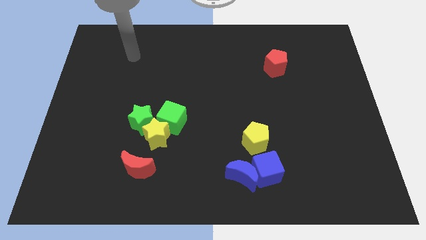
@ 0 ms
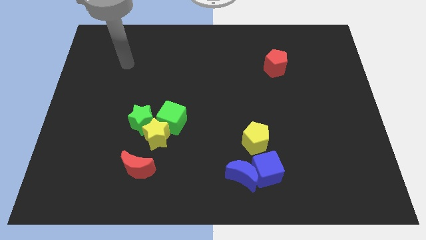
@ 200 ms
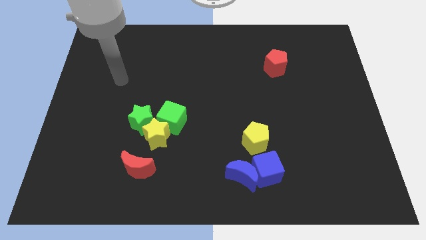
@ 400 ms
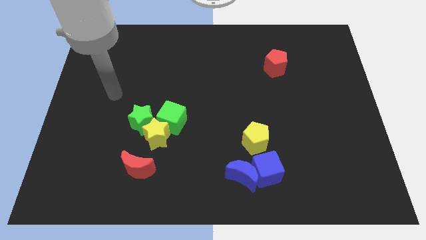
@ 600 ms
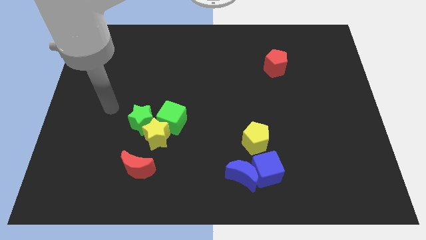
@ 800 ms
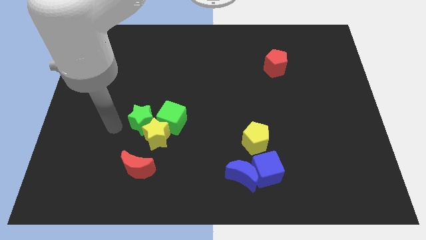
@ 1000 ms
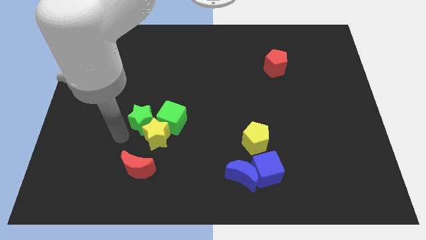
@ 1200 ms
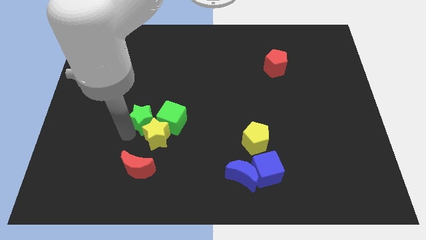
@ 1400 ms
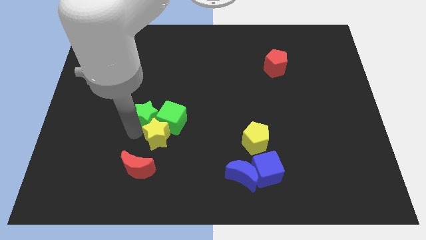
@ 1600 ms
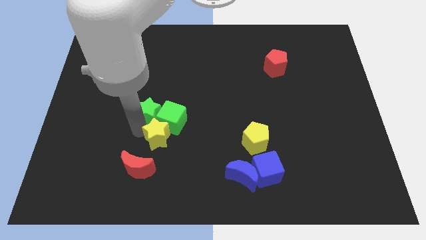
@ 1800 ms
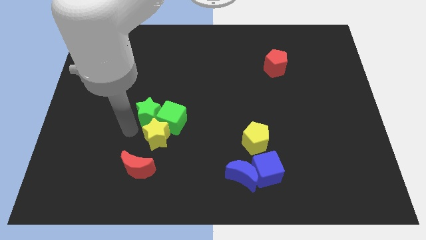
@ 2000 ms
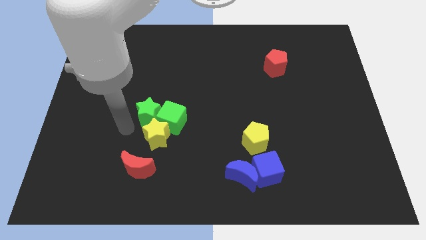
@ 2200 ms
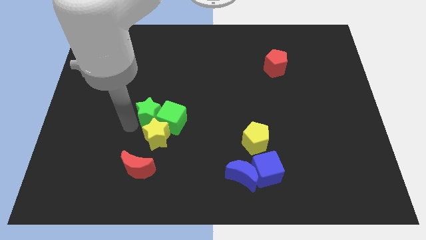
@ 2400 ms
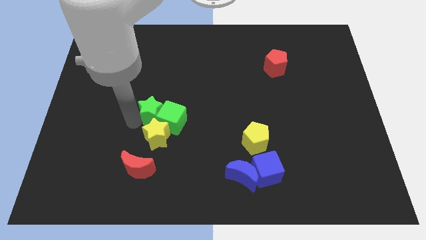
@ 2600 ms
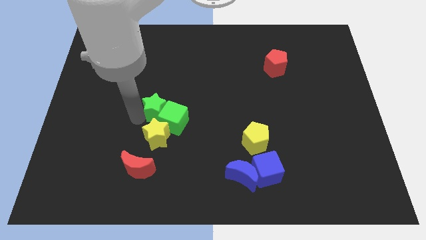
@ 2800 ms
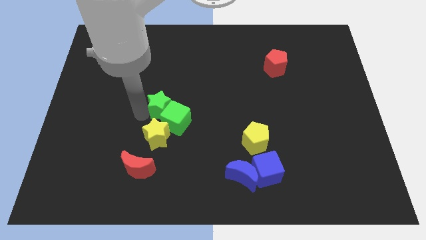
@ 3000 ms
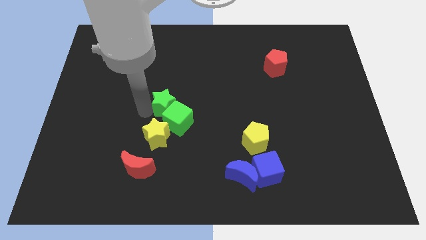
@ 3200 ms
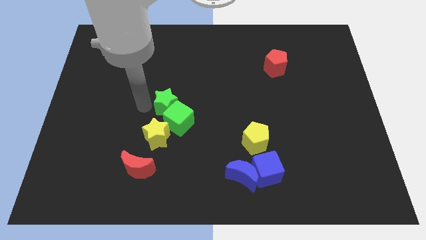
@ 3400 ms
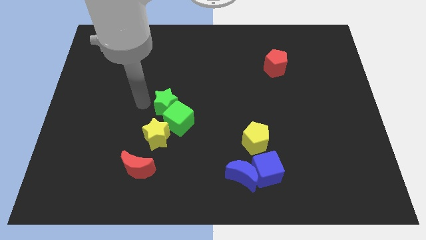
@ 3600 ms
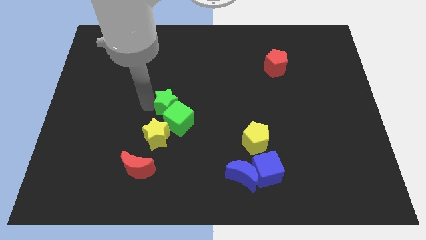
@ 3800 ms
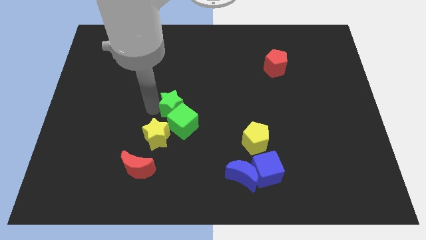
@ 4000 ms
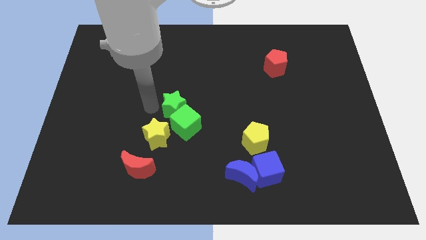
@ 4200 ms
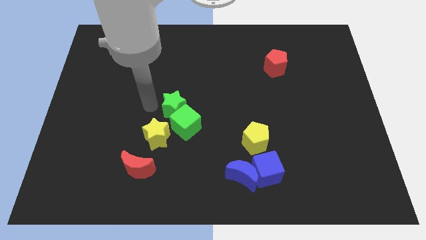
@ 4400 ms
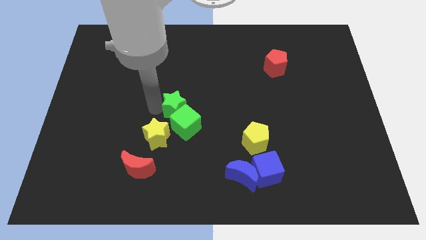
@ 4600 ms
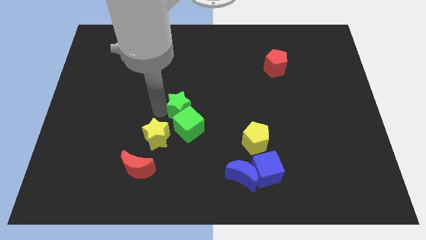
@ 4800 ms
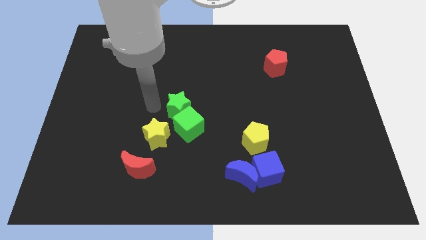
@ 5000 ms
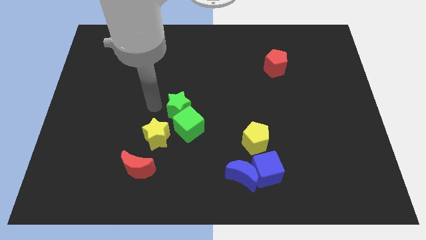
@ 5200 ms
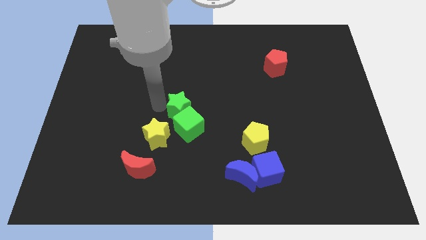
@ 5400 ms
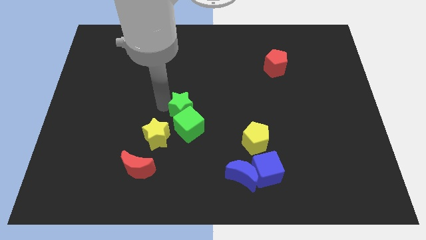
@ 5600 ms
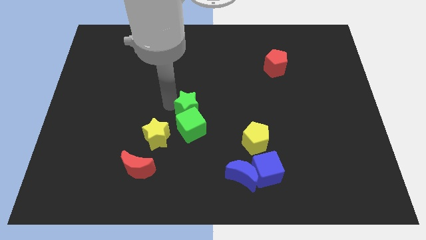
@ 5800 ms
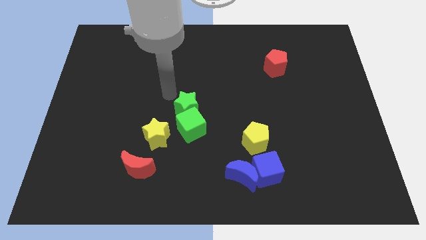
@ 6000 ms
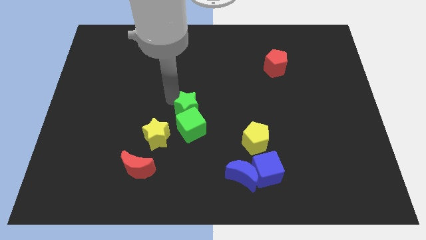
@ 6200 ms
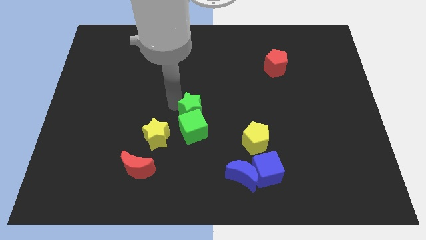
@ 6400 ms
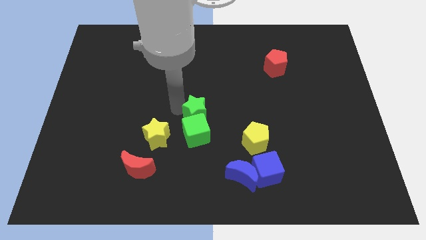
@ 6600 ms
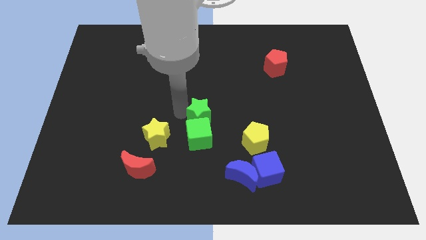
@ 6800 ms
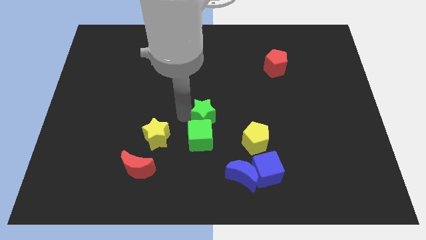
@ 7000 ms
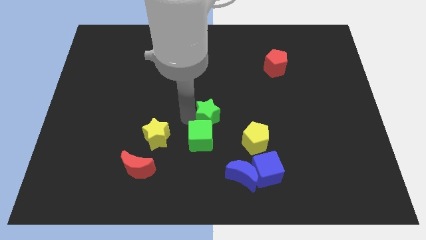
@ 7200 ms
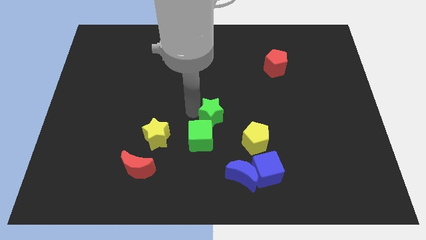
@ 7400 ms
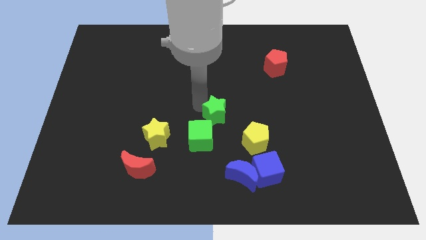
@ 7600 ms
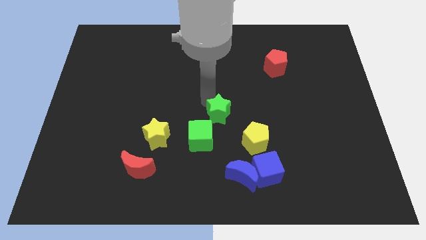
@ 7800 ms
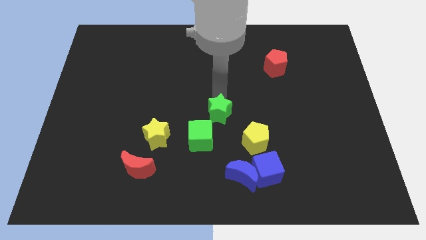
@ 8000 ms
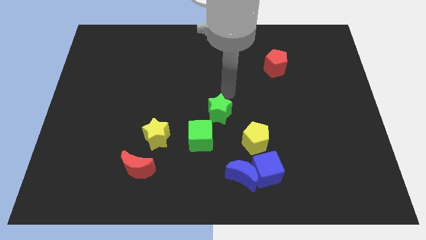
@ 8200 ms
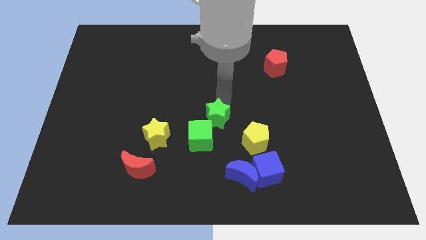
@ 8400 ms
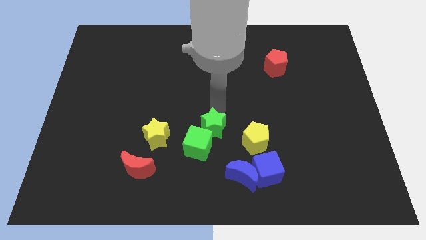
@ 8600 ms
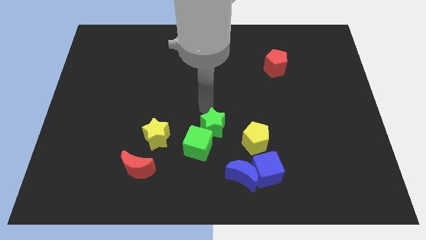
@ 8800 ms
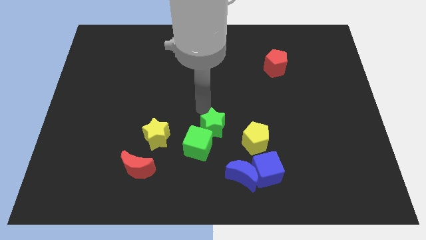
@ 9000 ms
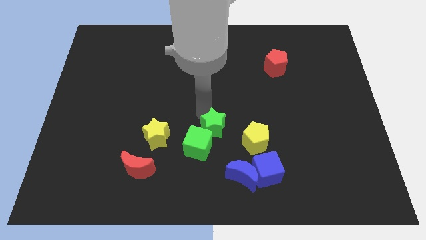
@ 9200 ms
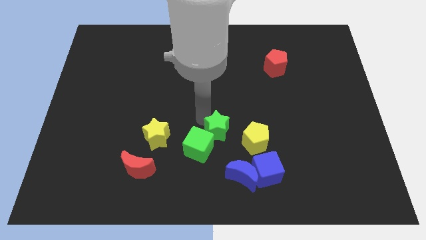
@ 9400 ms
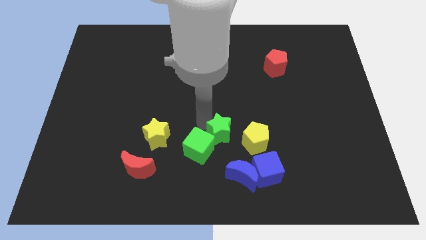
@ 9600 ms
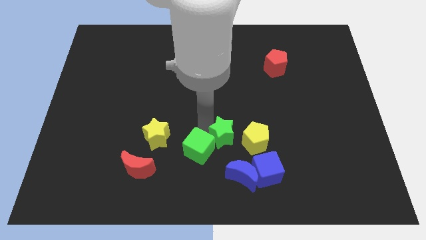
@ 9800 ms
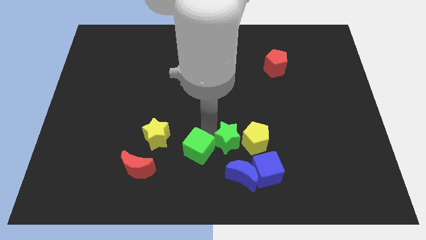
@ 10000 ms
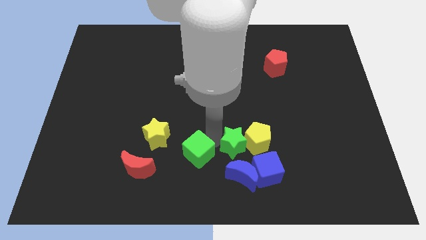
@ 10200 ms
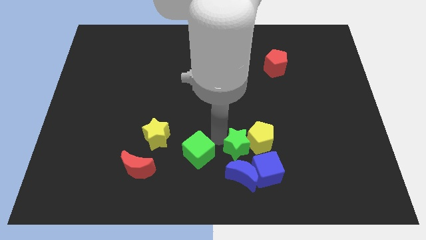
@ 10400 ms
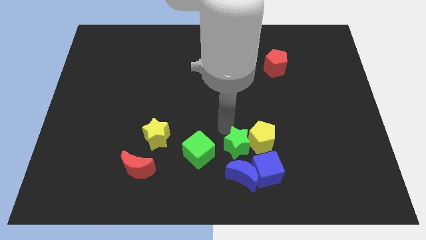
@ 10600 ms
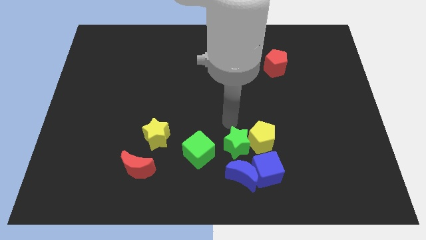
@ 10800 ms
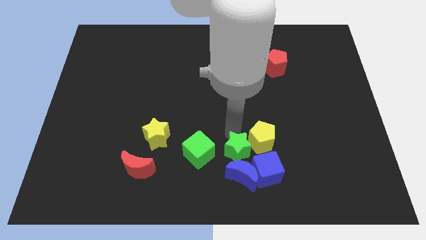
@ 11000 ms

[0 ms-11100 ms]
push the green star next to the blue moon

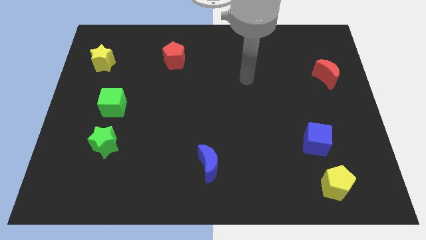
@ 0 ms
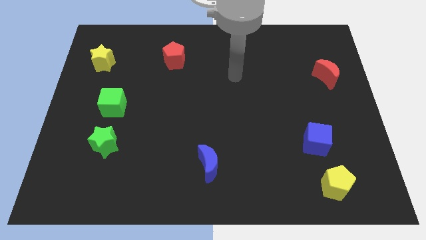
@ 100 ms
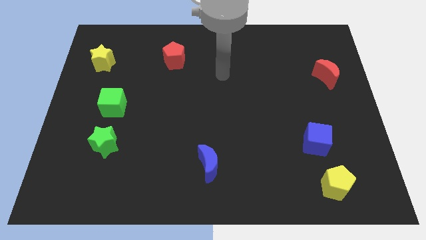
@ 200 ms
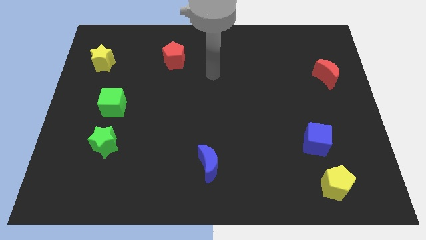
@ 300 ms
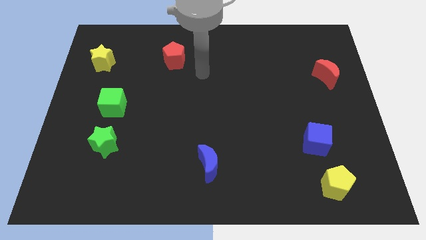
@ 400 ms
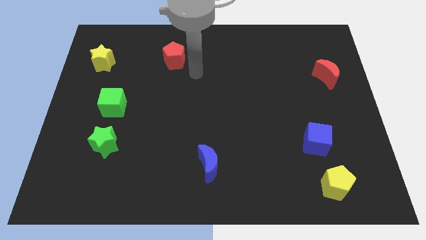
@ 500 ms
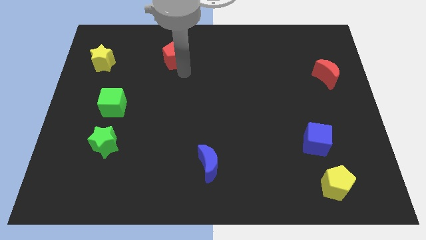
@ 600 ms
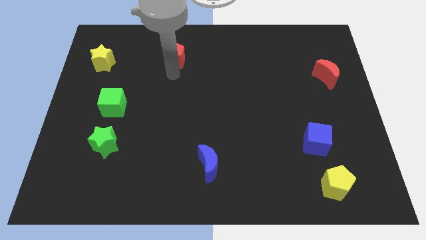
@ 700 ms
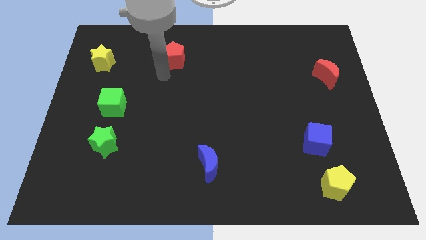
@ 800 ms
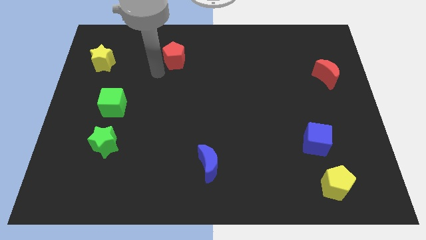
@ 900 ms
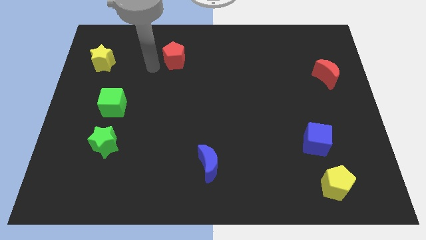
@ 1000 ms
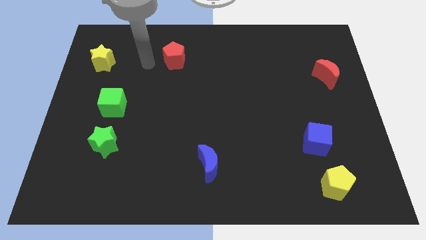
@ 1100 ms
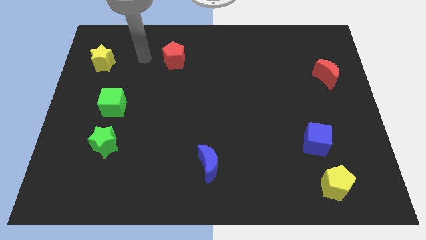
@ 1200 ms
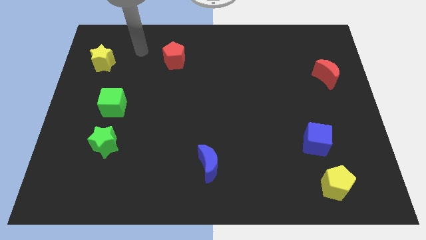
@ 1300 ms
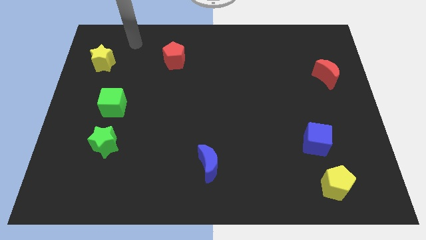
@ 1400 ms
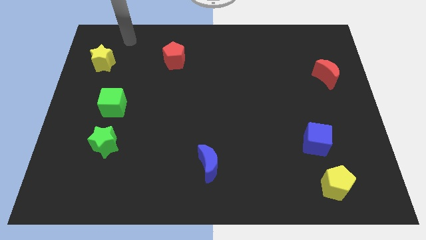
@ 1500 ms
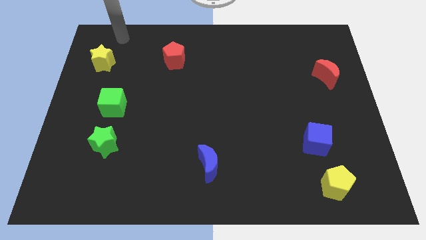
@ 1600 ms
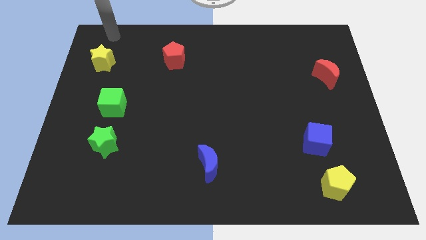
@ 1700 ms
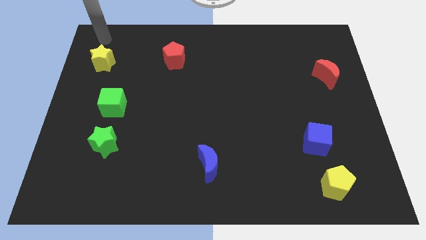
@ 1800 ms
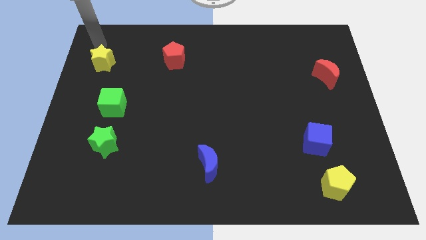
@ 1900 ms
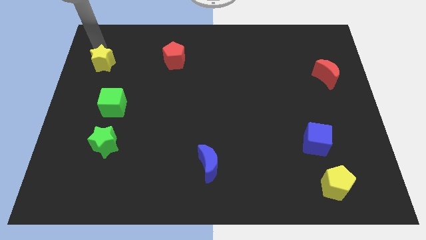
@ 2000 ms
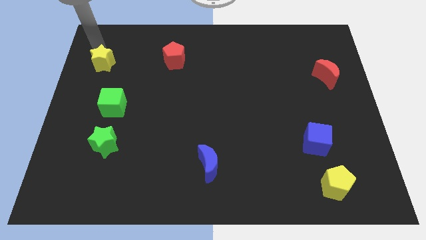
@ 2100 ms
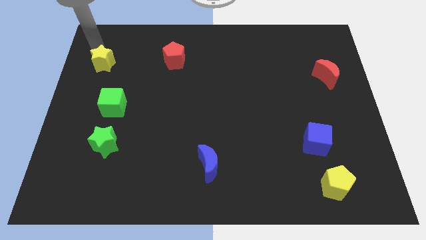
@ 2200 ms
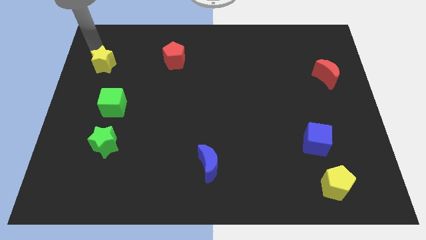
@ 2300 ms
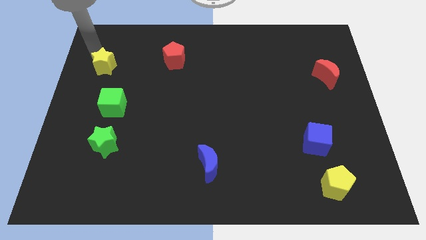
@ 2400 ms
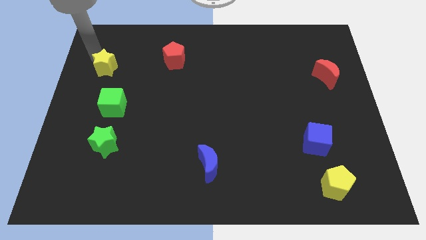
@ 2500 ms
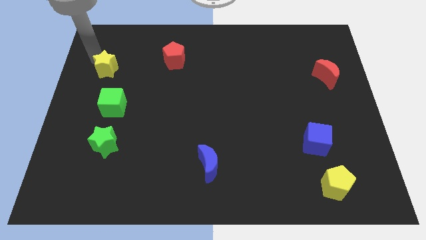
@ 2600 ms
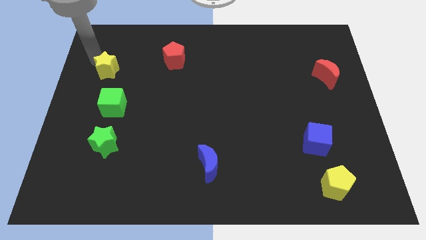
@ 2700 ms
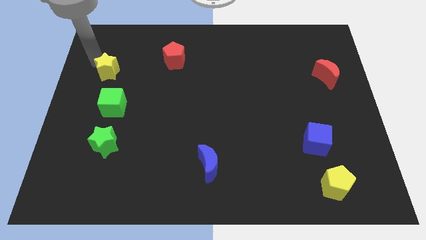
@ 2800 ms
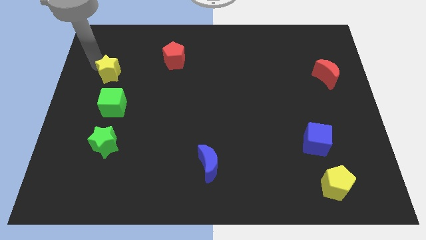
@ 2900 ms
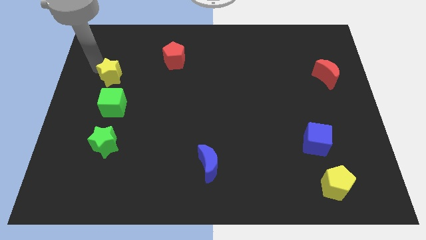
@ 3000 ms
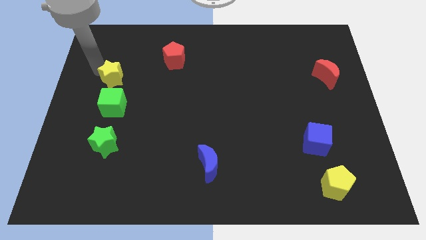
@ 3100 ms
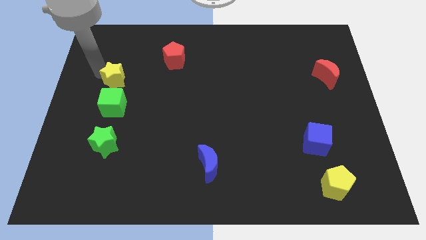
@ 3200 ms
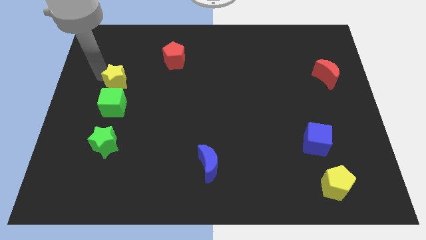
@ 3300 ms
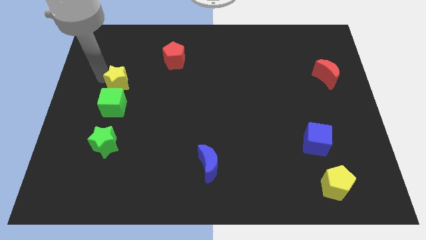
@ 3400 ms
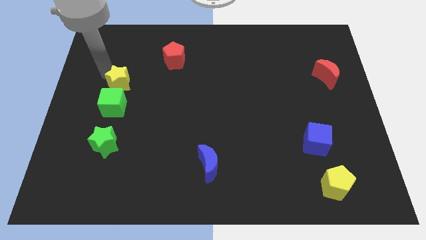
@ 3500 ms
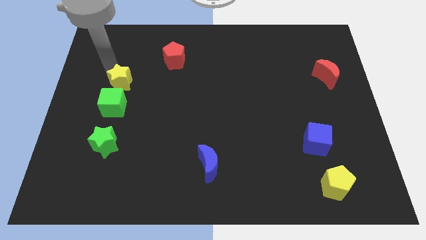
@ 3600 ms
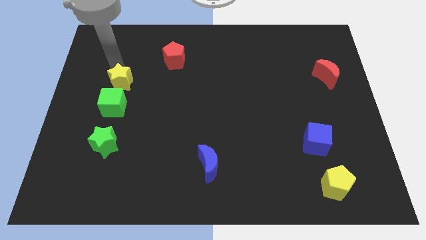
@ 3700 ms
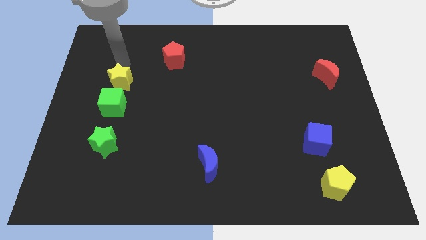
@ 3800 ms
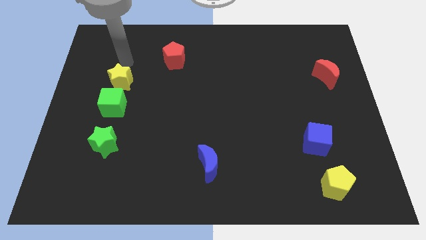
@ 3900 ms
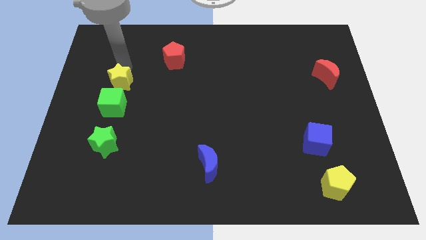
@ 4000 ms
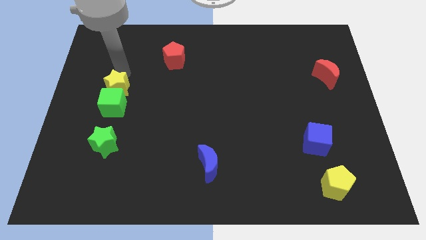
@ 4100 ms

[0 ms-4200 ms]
push the yellow star to the green cube
